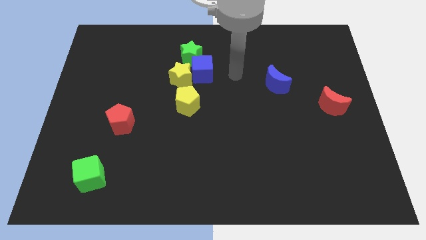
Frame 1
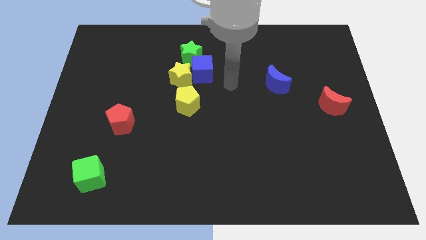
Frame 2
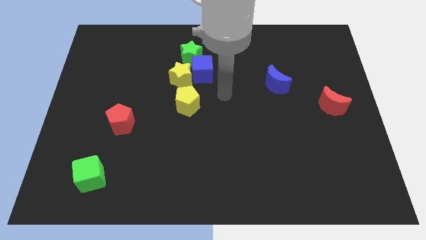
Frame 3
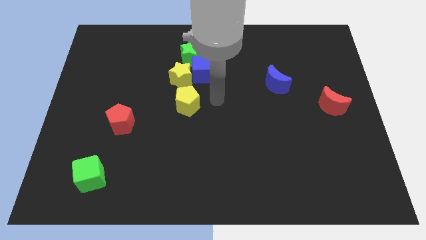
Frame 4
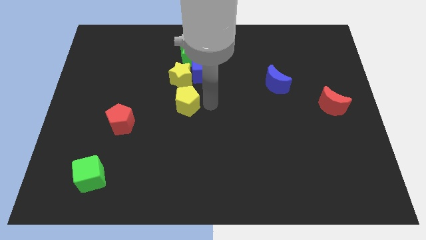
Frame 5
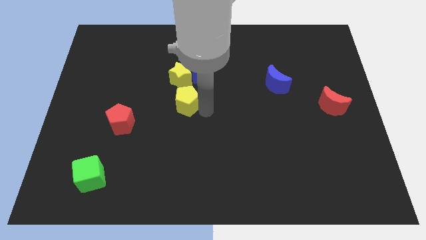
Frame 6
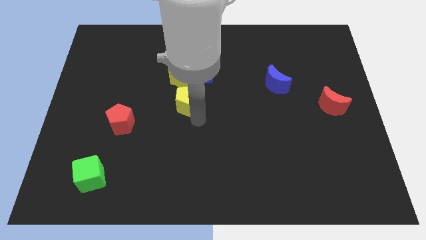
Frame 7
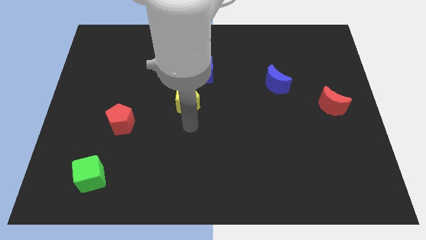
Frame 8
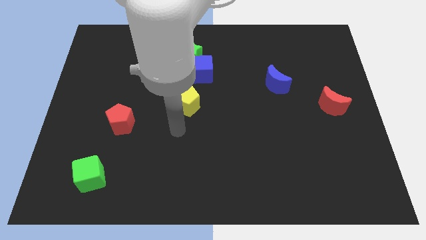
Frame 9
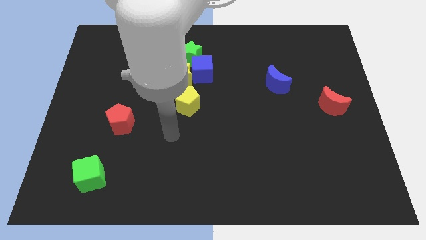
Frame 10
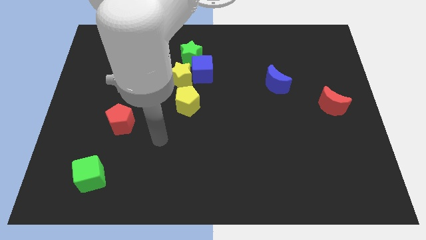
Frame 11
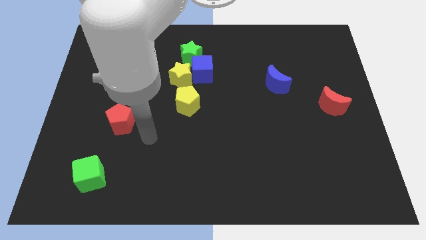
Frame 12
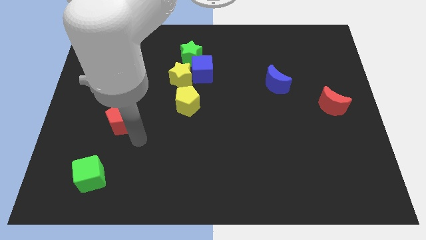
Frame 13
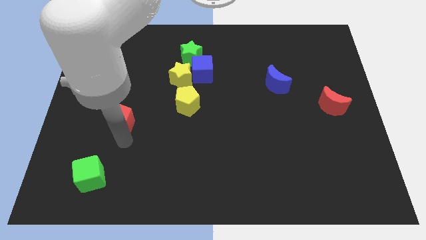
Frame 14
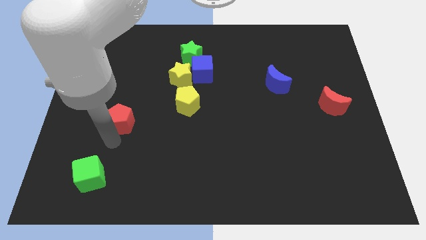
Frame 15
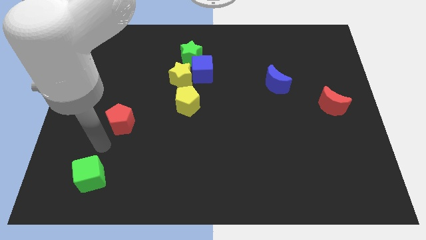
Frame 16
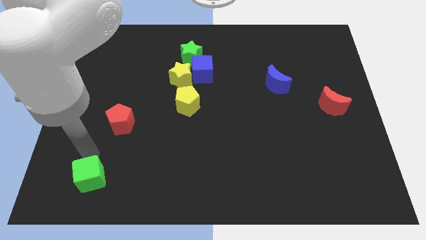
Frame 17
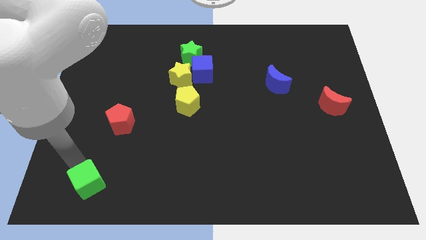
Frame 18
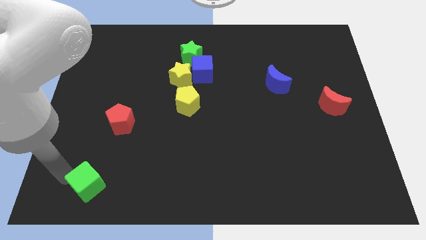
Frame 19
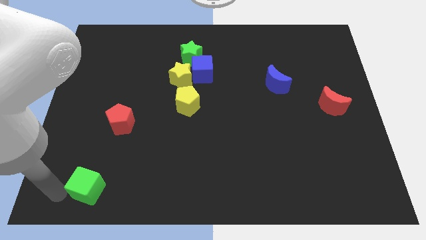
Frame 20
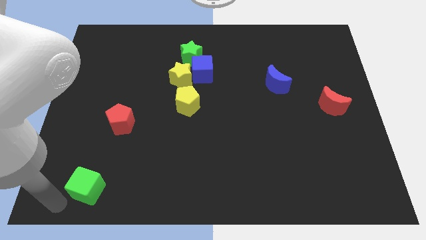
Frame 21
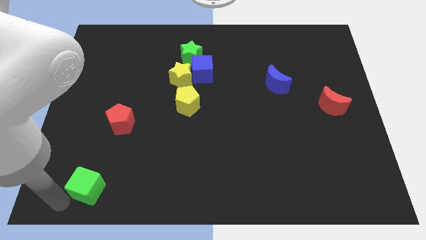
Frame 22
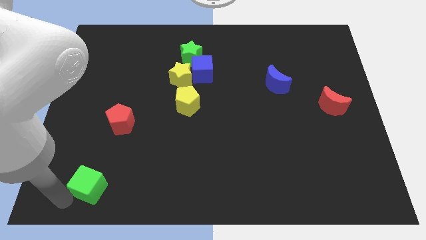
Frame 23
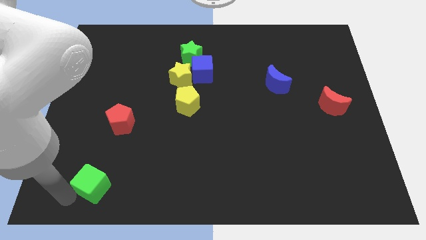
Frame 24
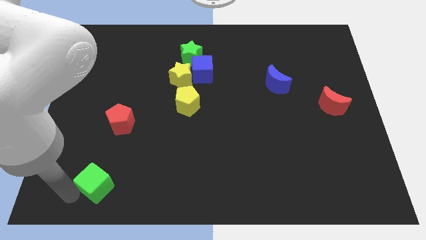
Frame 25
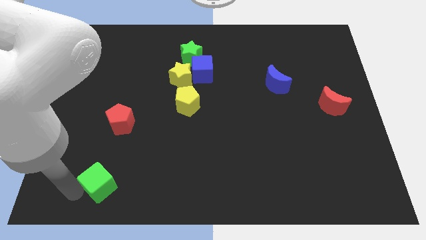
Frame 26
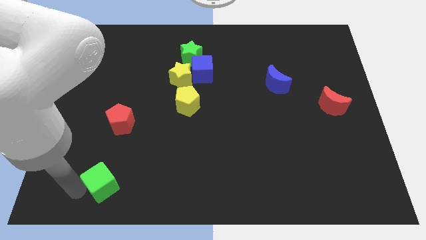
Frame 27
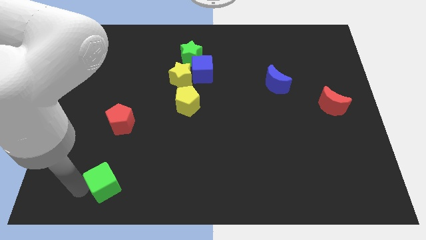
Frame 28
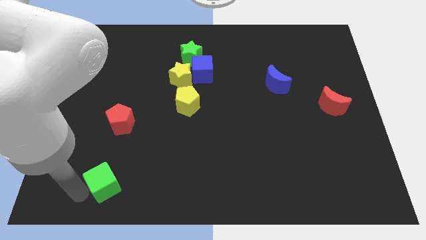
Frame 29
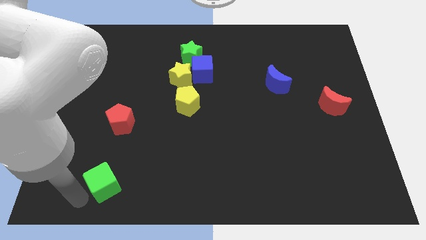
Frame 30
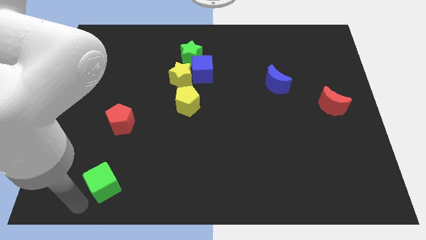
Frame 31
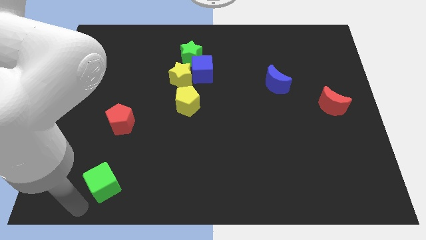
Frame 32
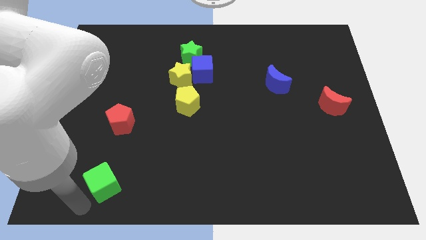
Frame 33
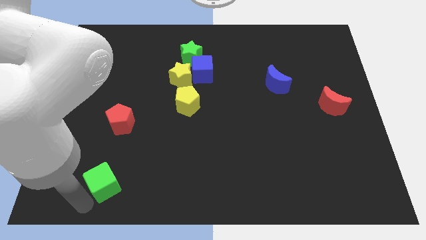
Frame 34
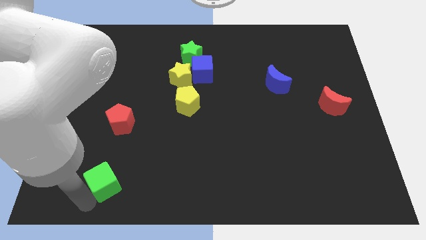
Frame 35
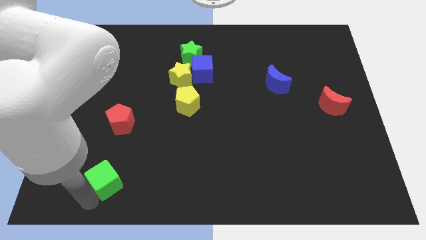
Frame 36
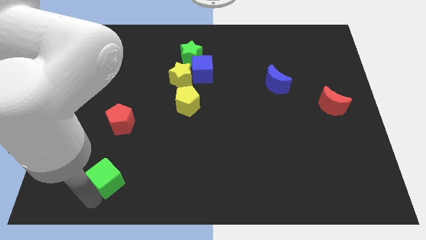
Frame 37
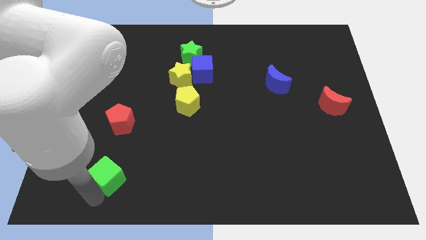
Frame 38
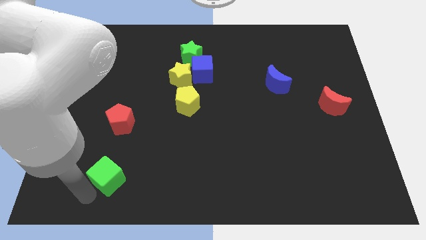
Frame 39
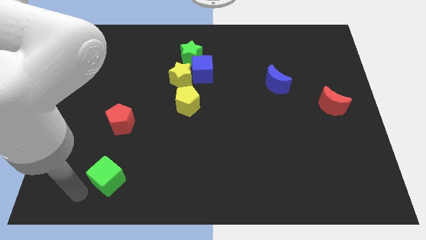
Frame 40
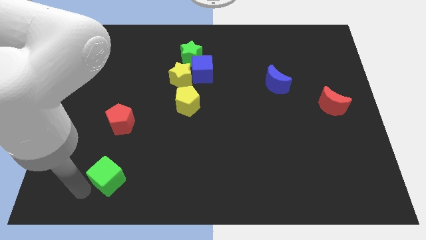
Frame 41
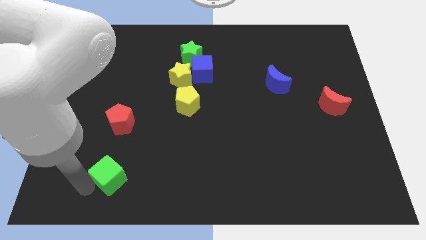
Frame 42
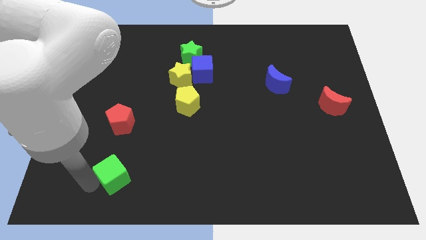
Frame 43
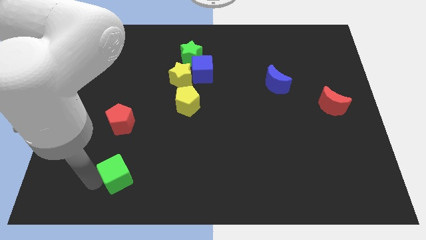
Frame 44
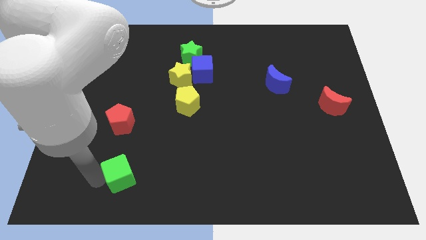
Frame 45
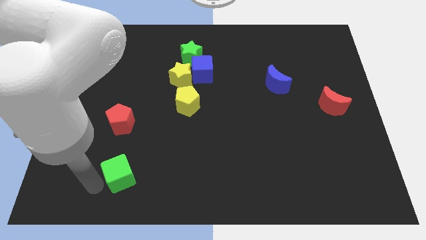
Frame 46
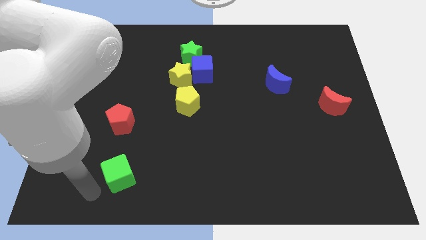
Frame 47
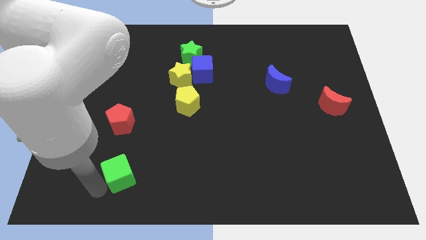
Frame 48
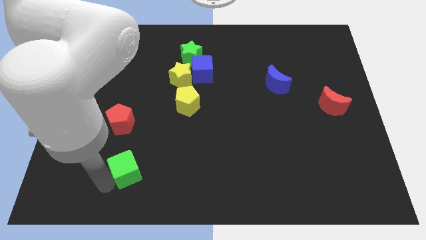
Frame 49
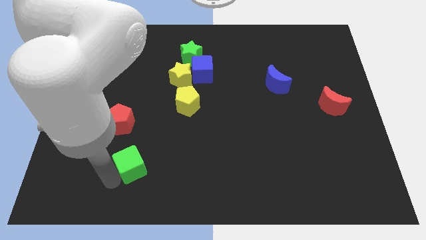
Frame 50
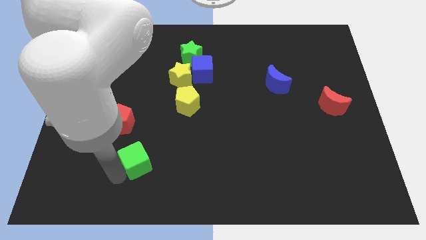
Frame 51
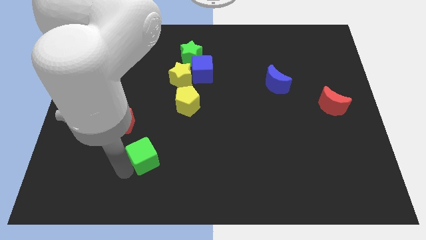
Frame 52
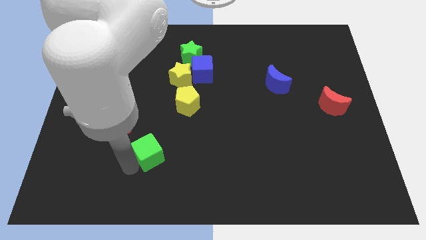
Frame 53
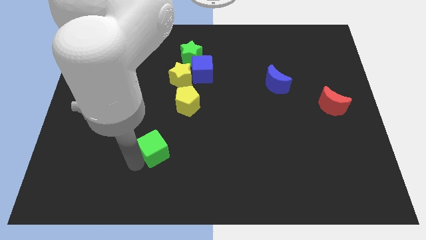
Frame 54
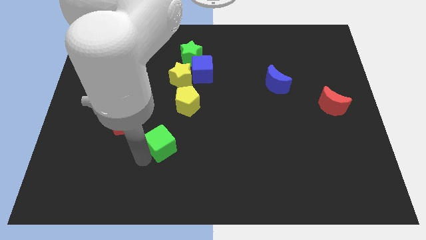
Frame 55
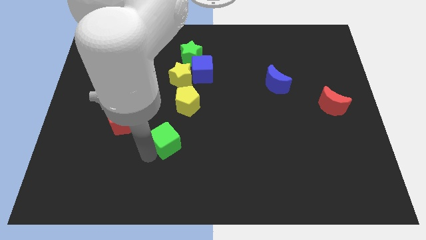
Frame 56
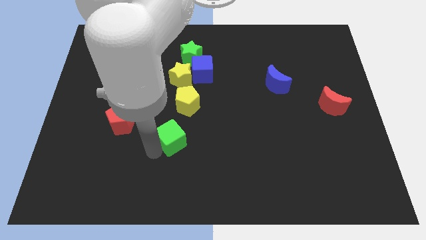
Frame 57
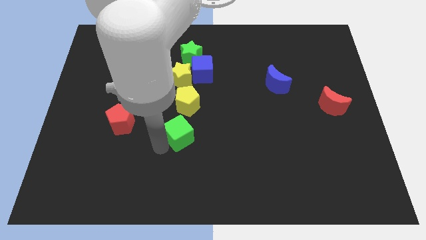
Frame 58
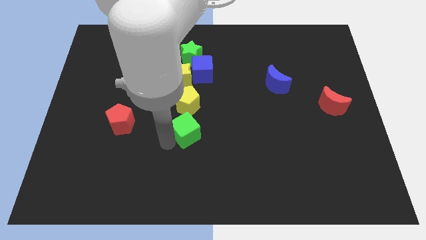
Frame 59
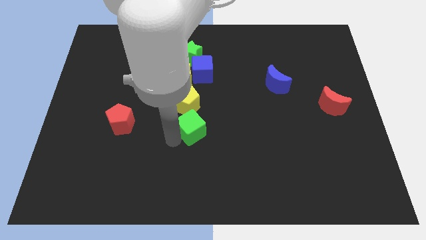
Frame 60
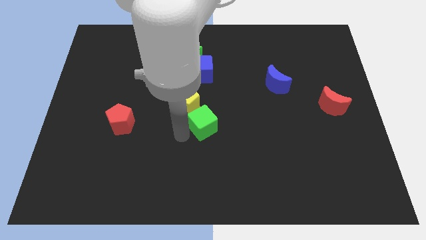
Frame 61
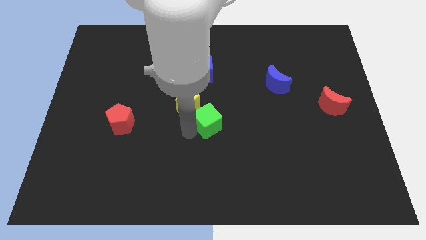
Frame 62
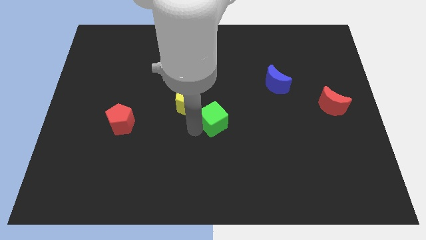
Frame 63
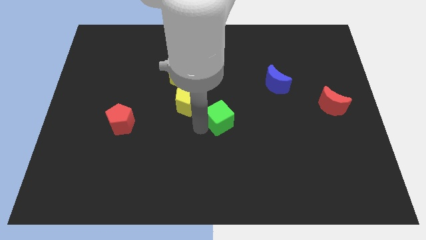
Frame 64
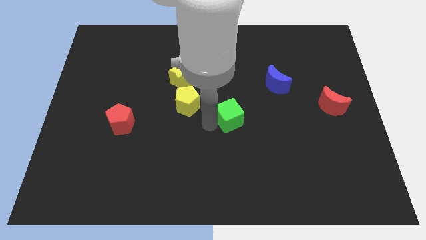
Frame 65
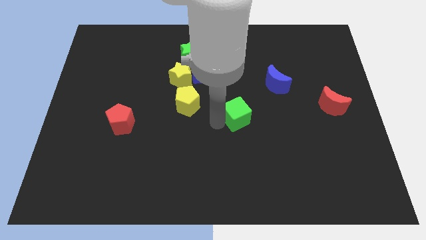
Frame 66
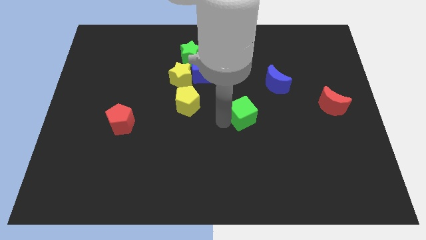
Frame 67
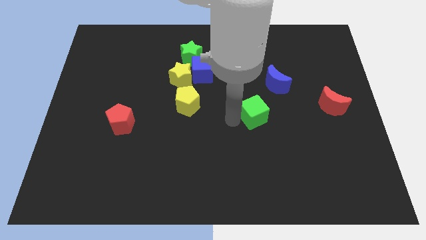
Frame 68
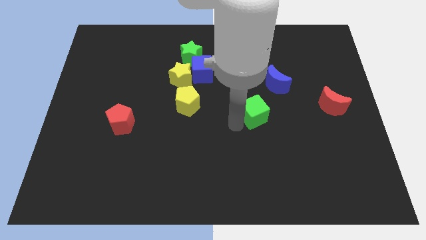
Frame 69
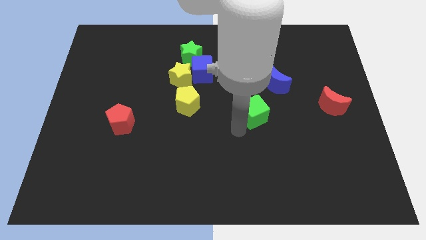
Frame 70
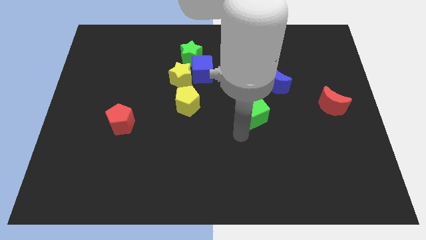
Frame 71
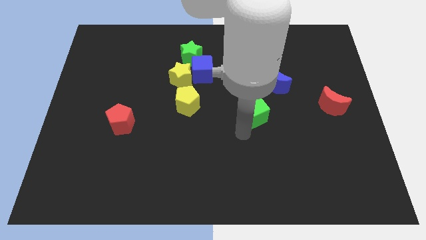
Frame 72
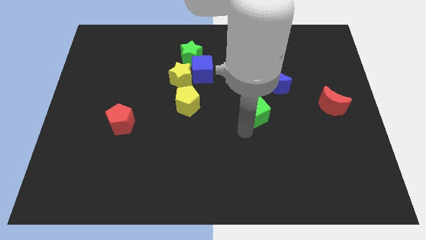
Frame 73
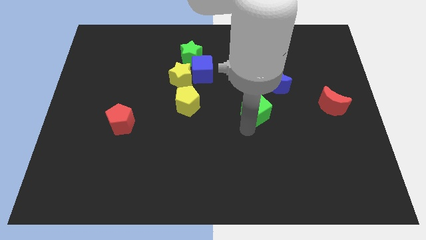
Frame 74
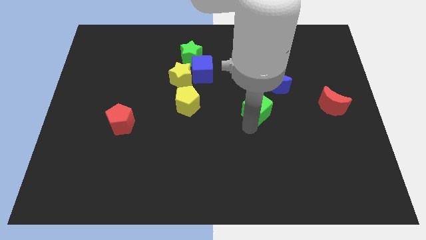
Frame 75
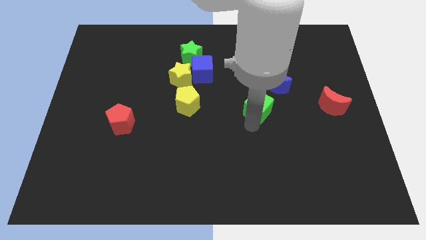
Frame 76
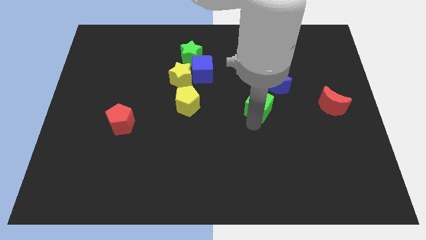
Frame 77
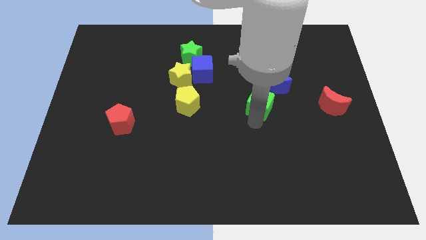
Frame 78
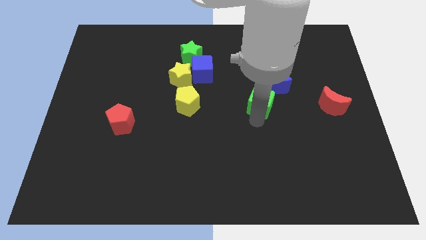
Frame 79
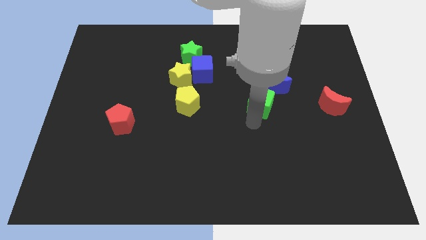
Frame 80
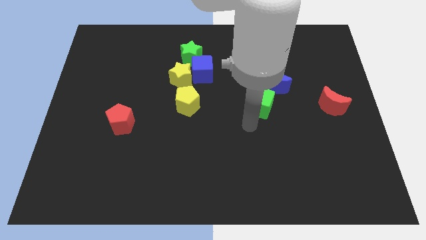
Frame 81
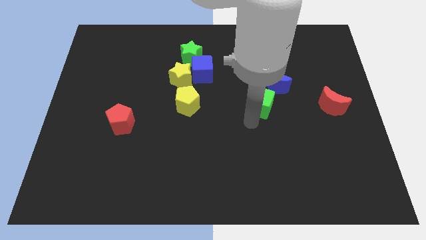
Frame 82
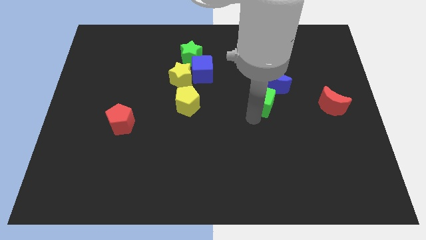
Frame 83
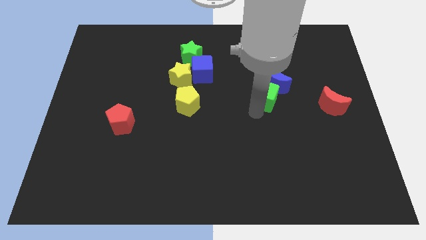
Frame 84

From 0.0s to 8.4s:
put the green cube close to the blue moon
